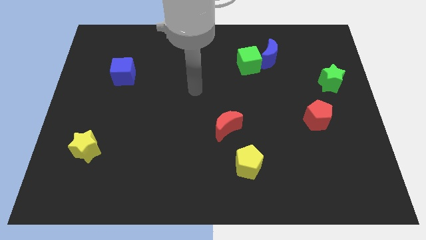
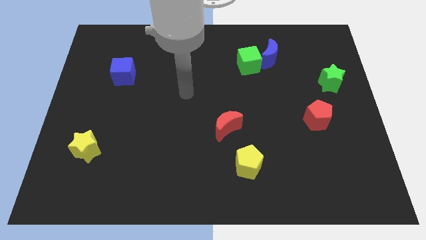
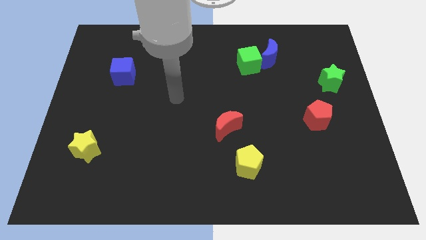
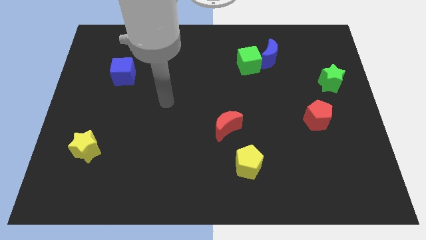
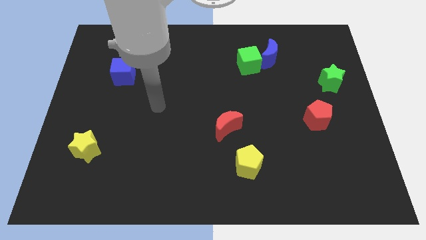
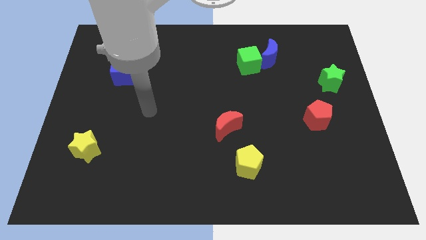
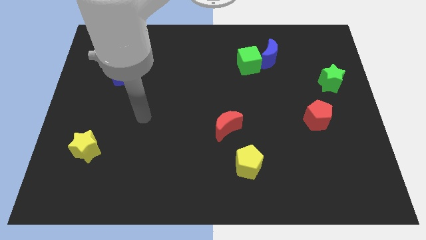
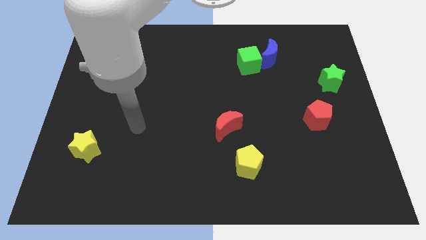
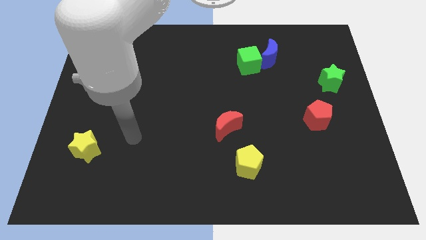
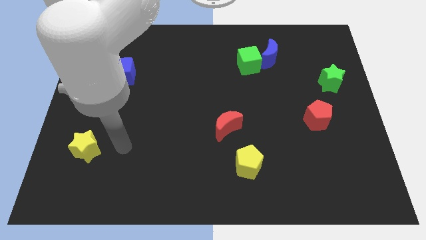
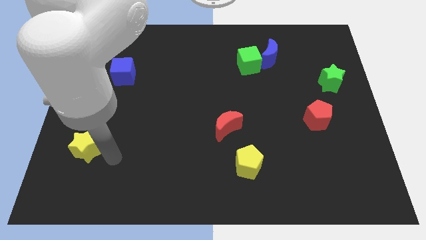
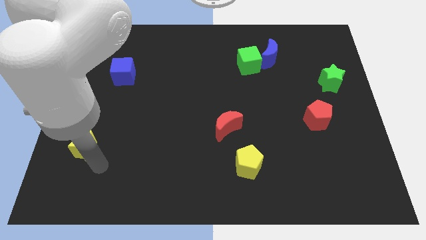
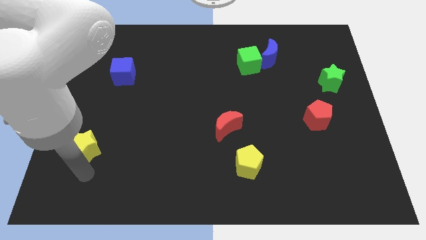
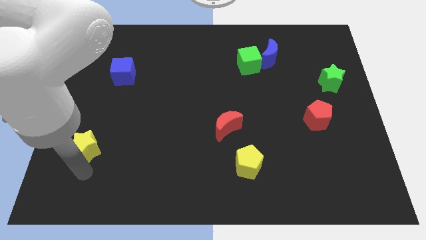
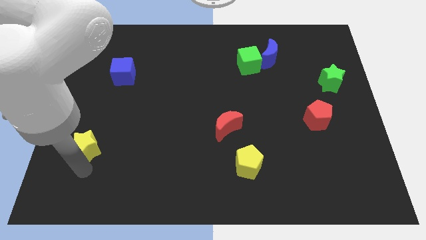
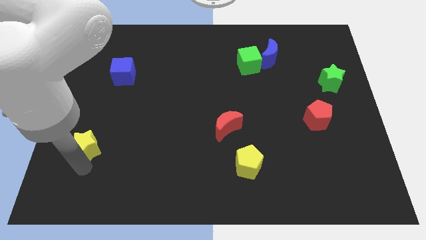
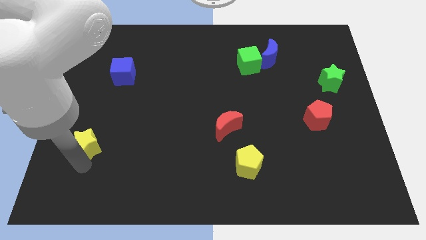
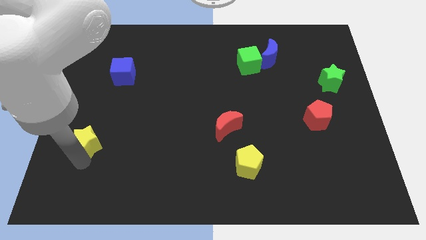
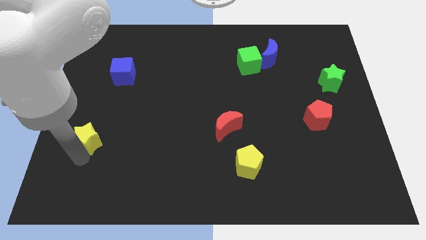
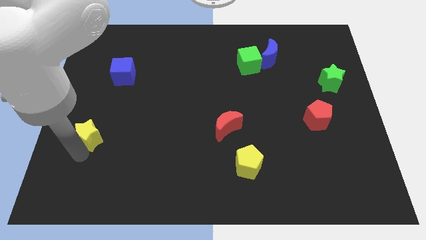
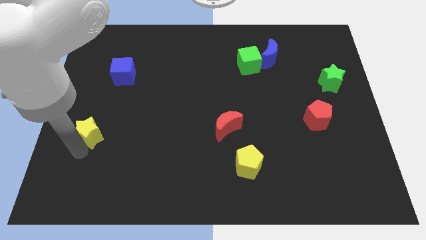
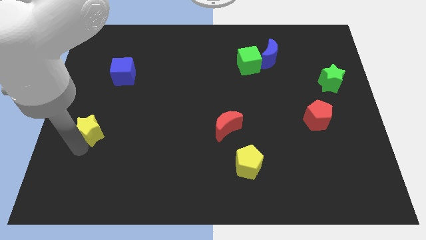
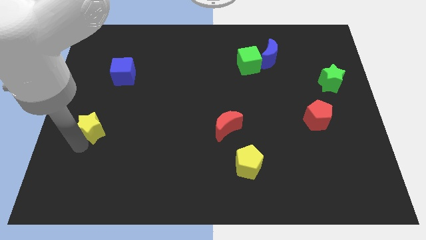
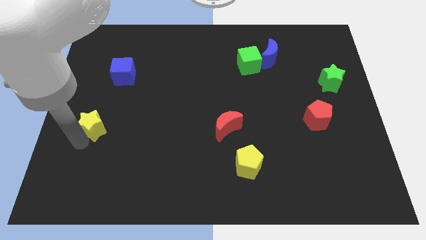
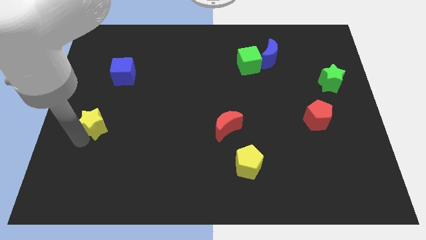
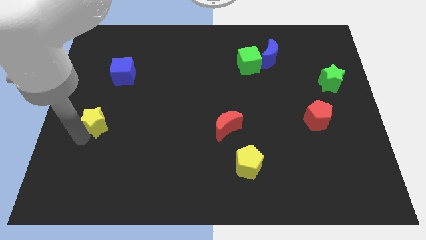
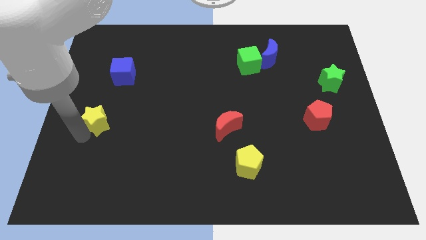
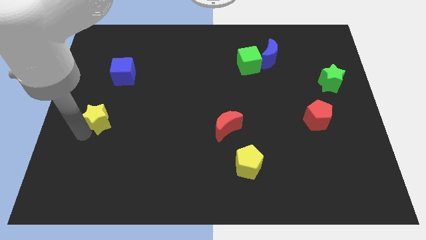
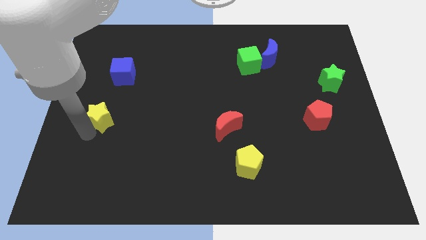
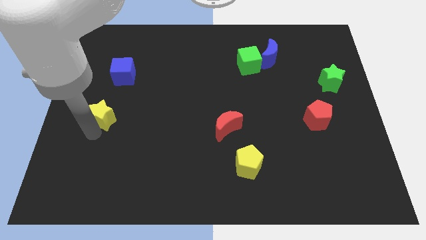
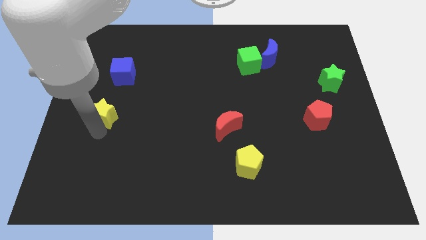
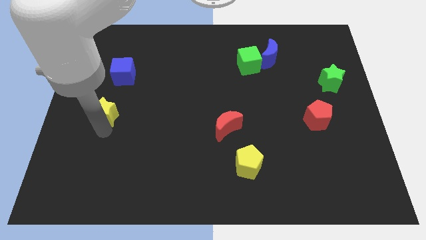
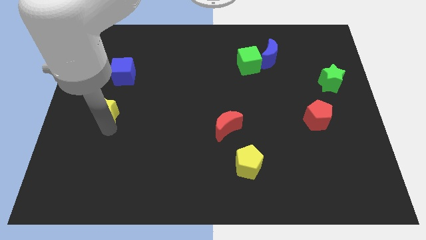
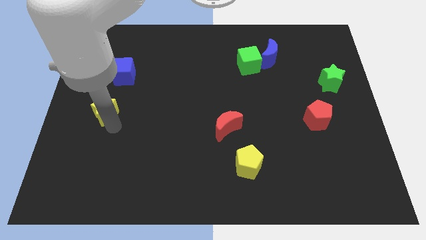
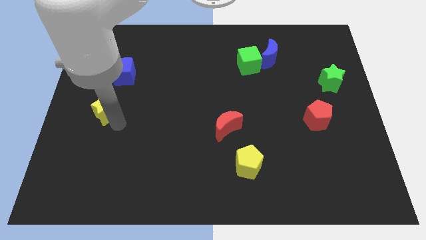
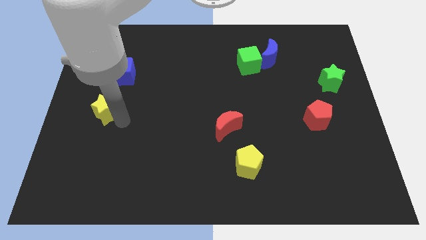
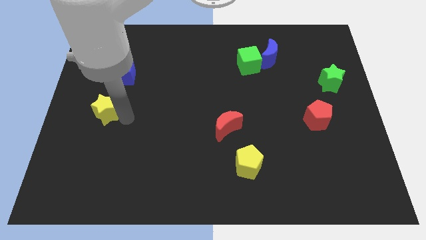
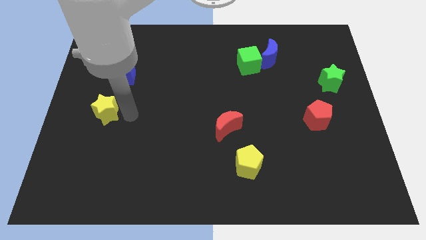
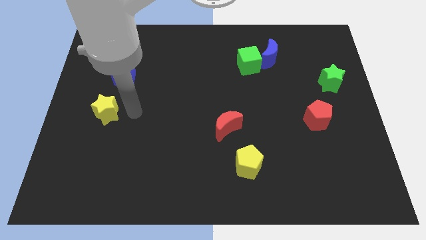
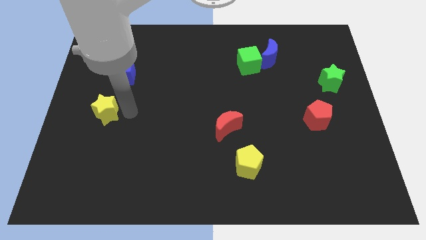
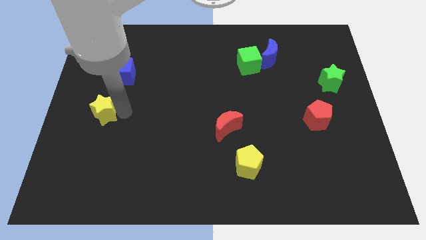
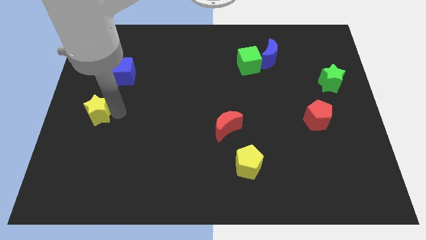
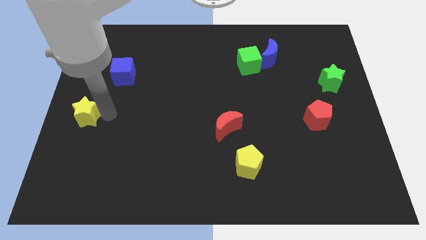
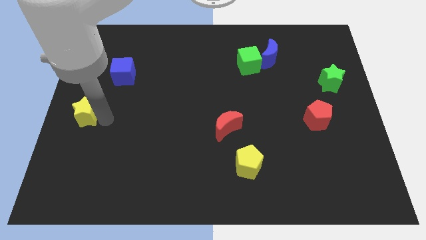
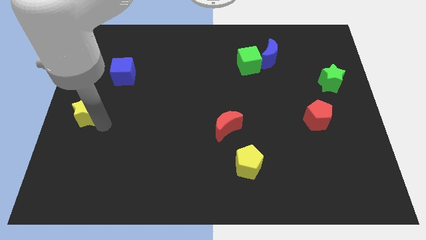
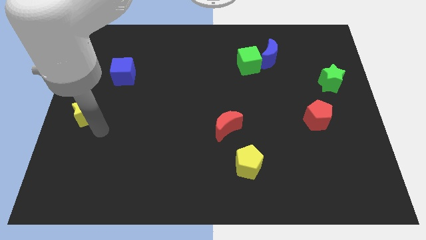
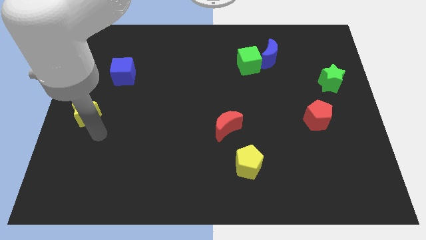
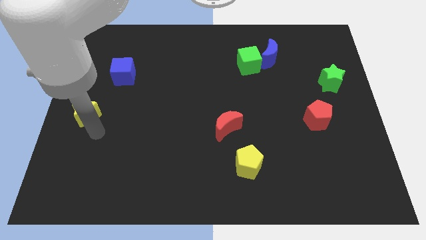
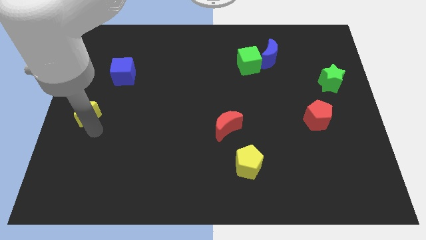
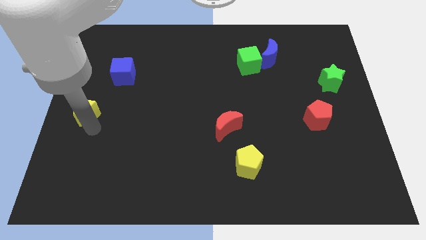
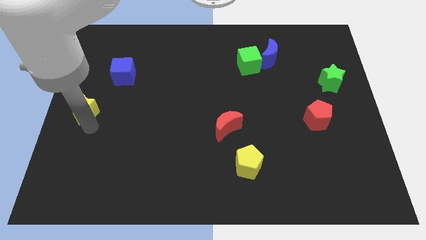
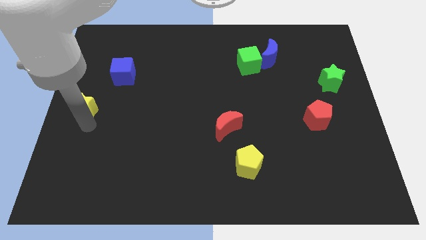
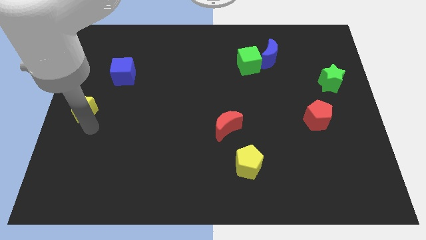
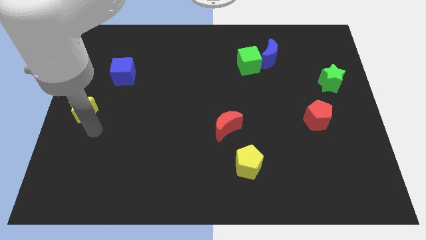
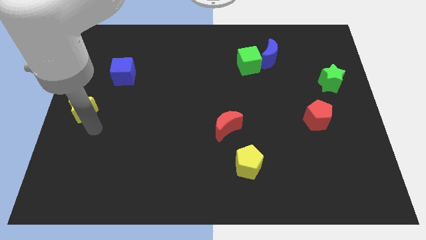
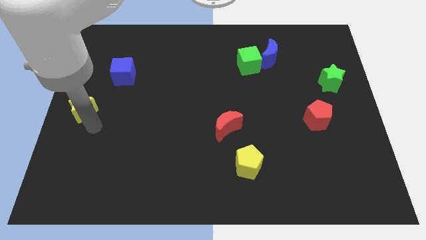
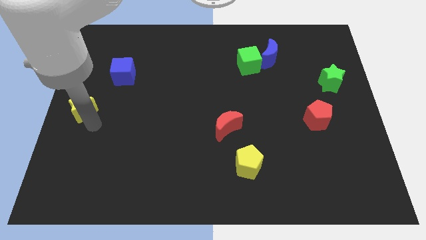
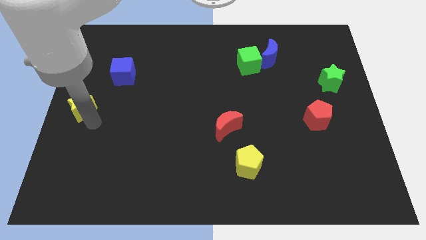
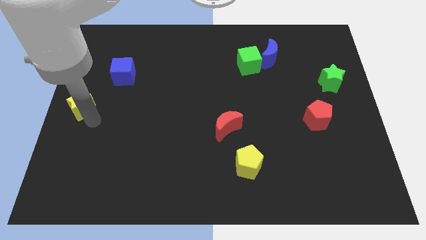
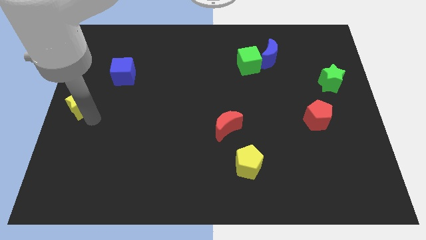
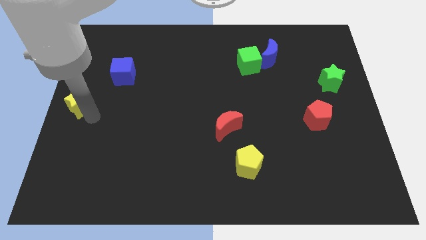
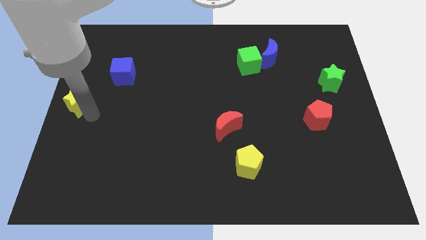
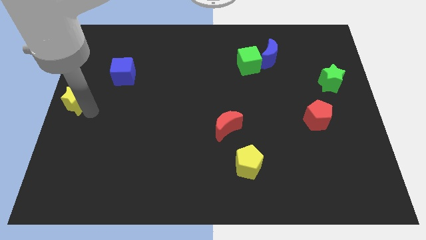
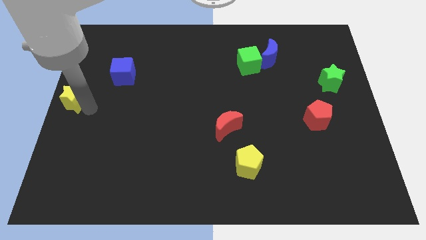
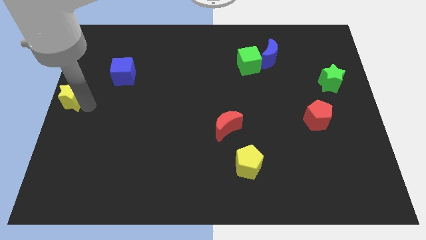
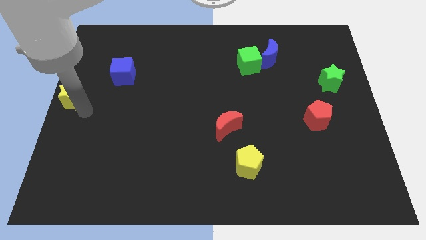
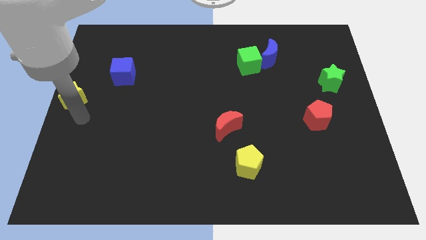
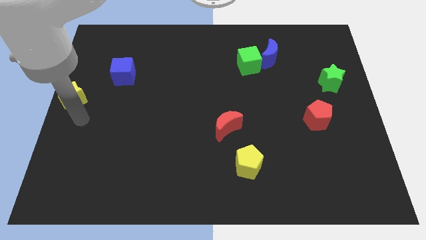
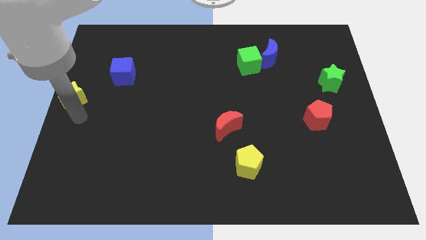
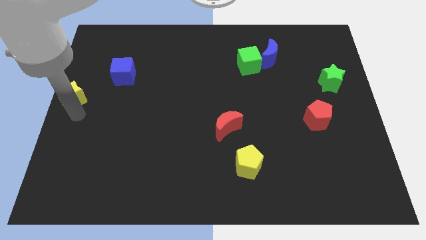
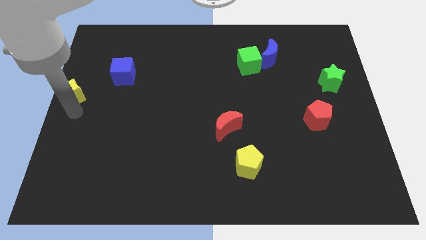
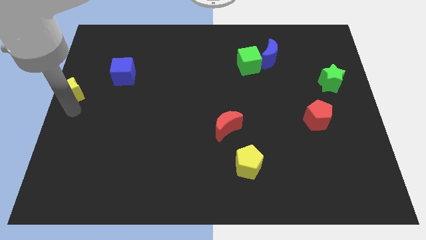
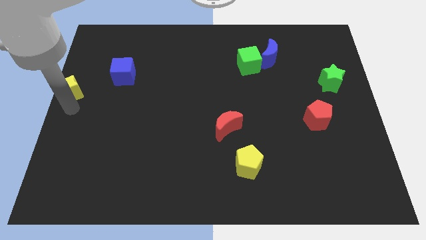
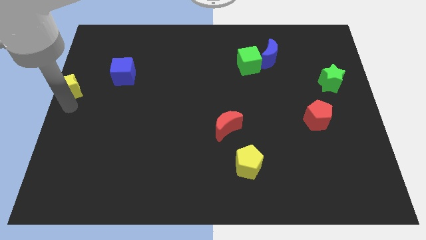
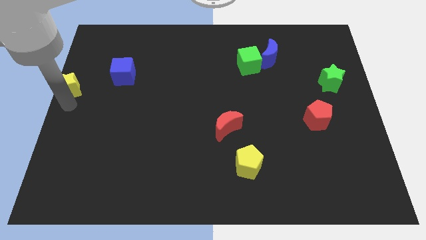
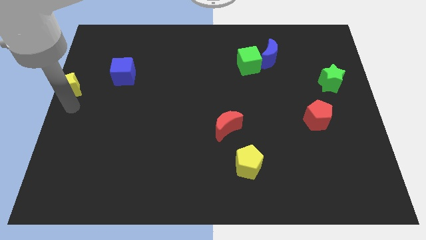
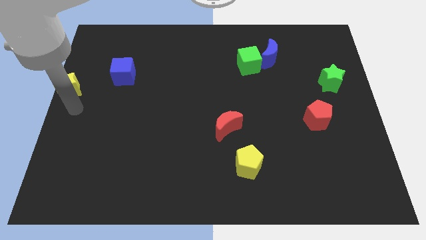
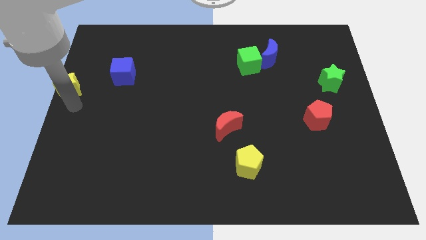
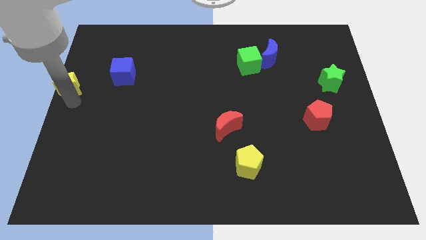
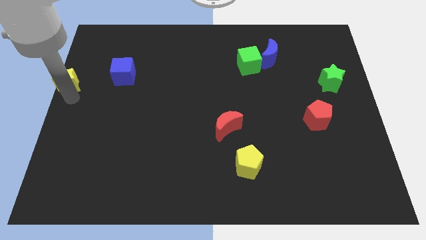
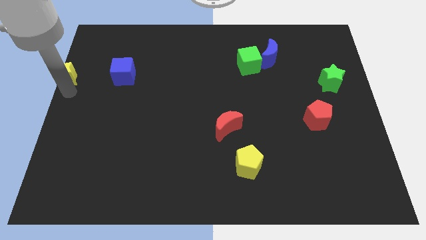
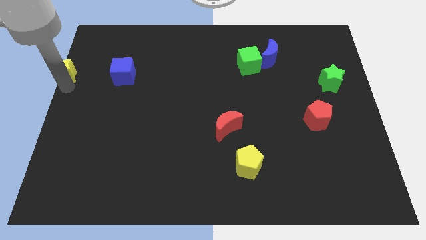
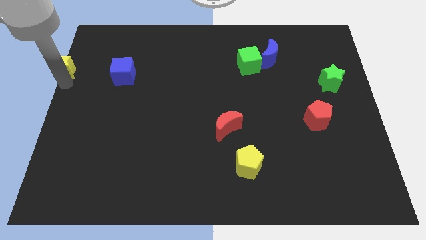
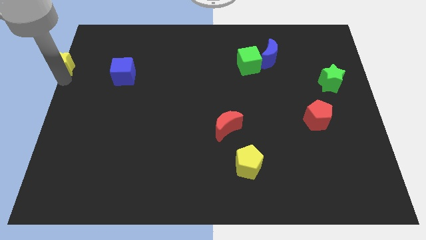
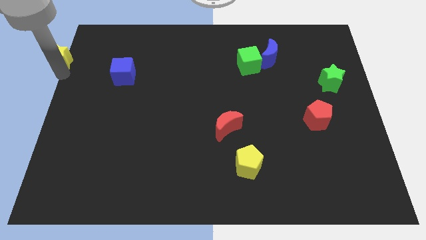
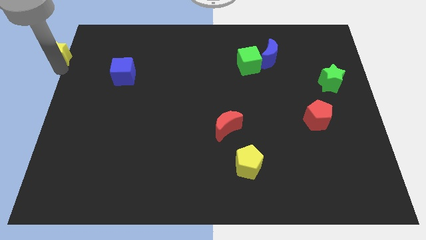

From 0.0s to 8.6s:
put the yellow star to the top left corner
